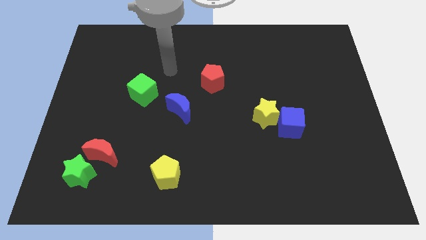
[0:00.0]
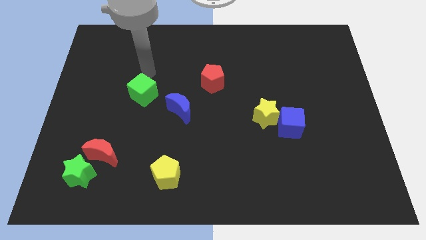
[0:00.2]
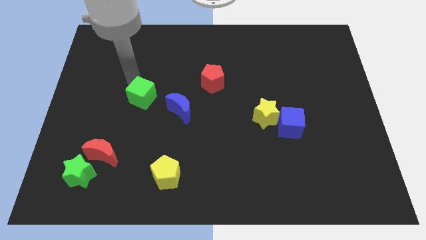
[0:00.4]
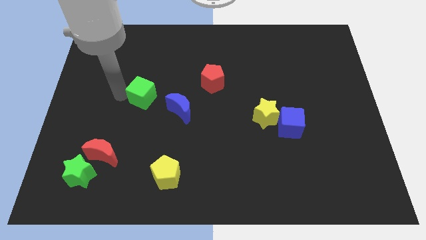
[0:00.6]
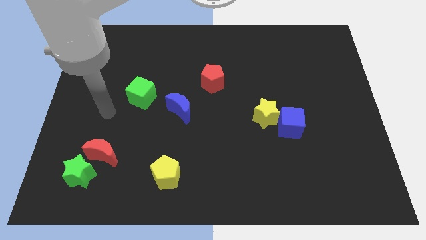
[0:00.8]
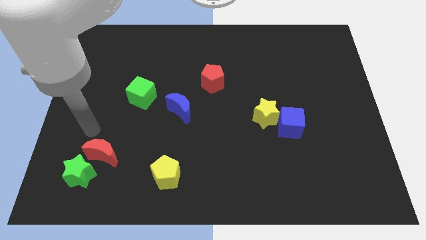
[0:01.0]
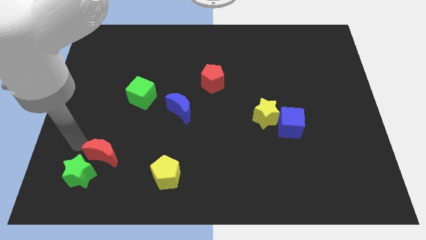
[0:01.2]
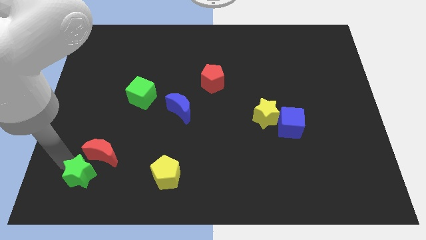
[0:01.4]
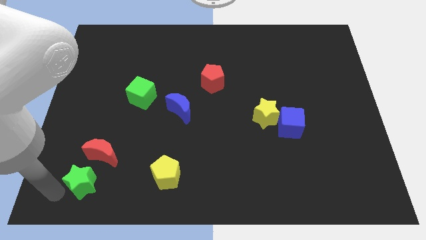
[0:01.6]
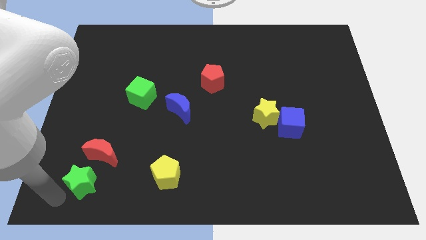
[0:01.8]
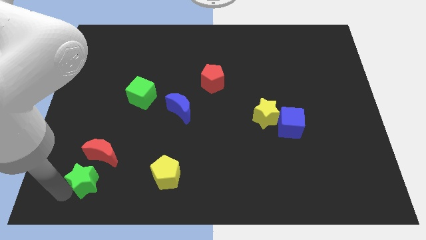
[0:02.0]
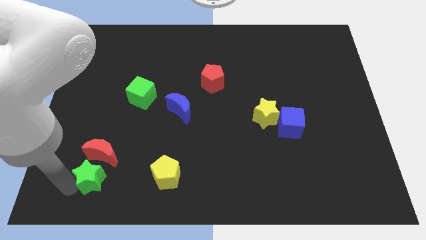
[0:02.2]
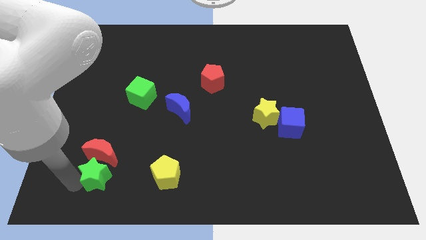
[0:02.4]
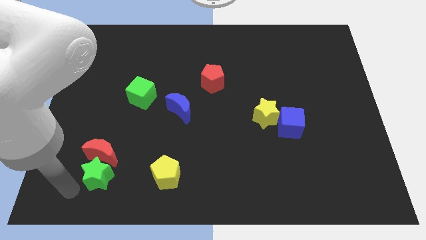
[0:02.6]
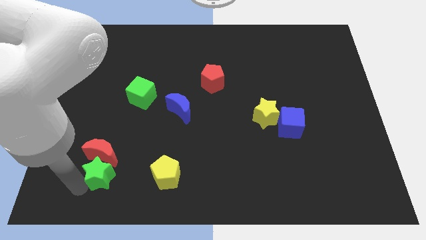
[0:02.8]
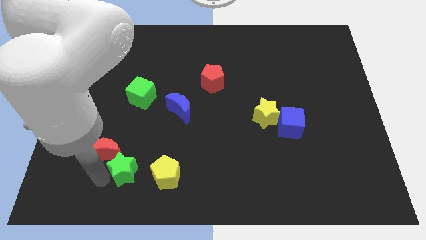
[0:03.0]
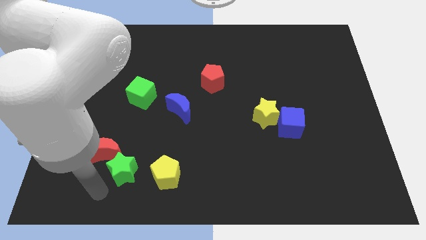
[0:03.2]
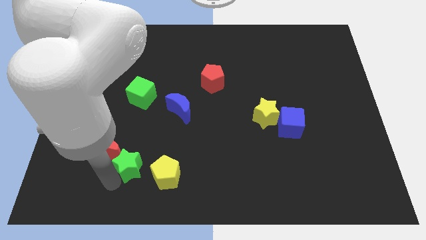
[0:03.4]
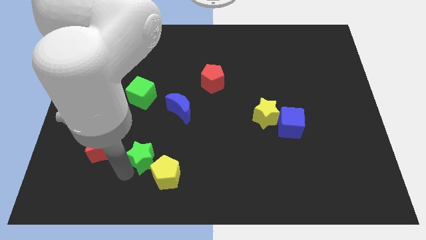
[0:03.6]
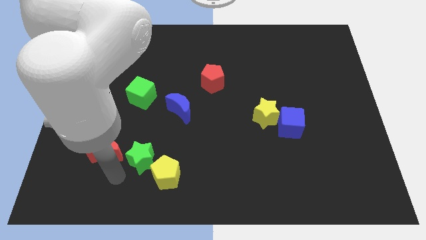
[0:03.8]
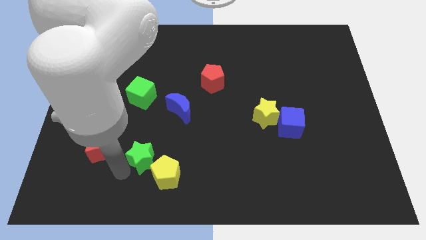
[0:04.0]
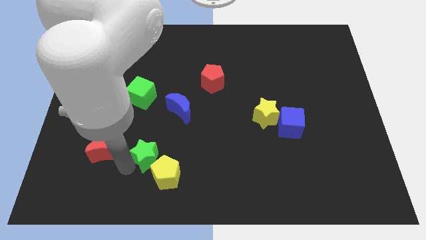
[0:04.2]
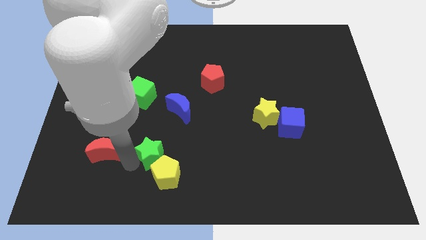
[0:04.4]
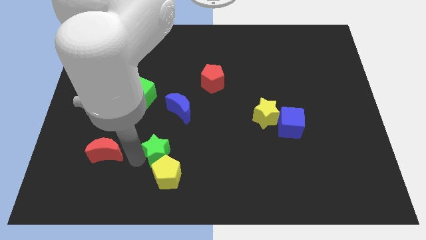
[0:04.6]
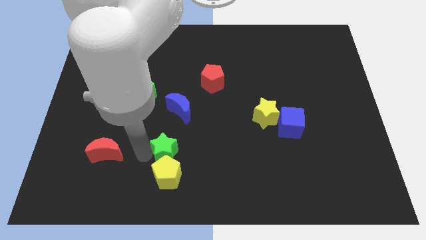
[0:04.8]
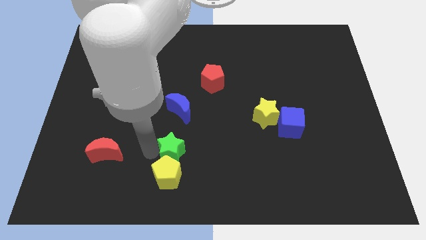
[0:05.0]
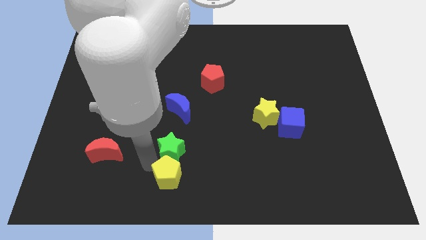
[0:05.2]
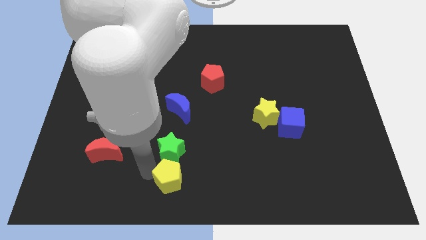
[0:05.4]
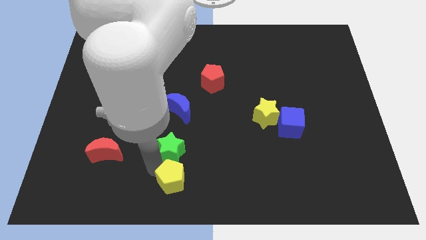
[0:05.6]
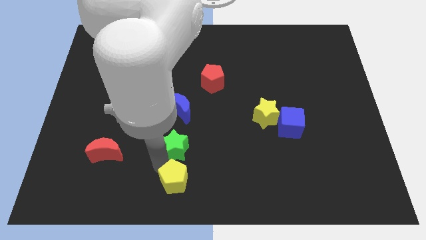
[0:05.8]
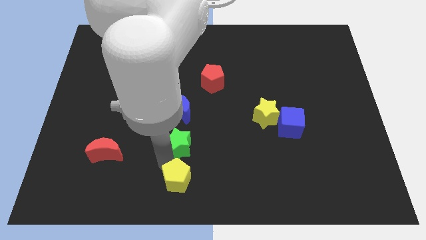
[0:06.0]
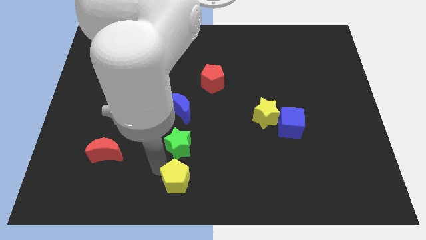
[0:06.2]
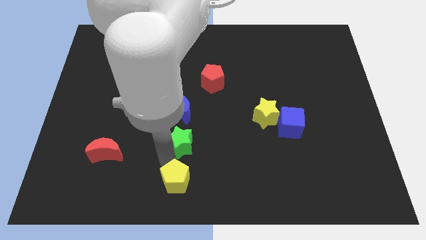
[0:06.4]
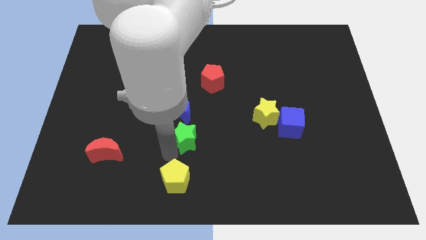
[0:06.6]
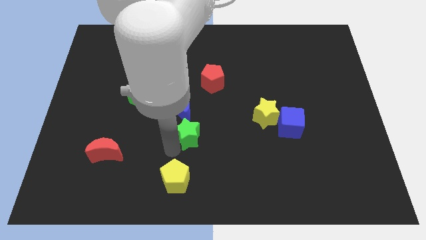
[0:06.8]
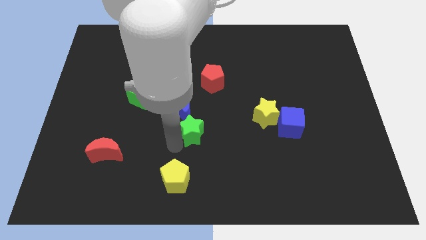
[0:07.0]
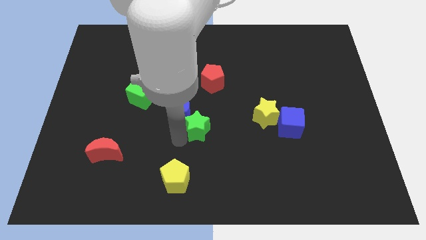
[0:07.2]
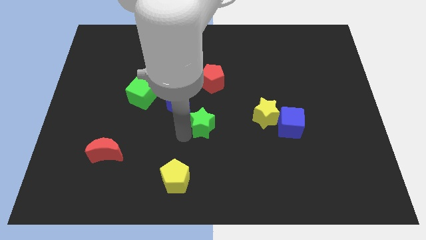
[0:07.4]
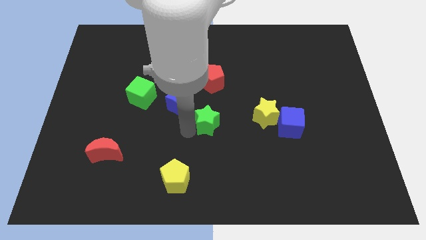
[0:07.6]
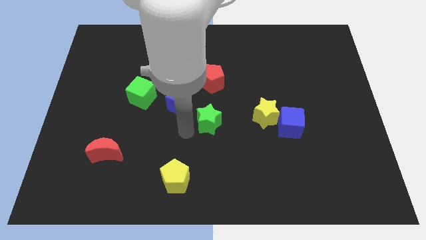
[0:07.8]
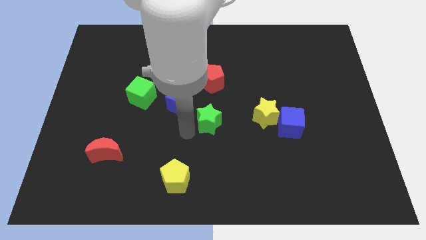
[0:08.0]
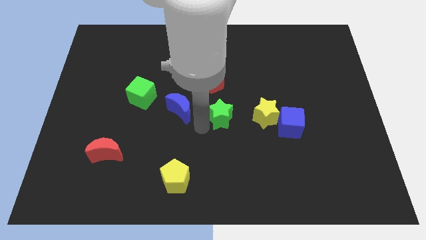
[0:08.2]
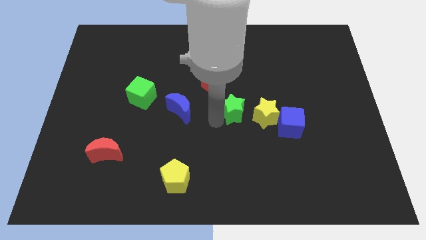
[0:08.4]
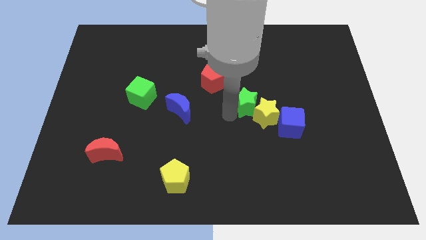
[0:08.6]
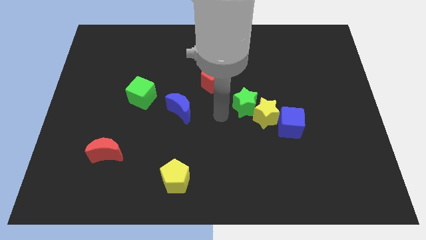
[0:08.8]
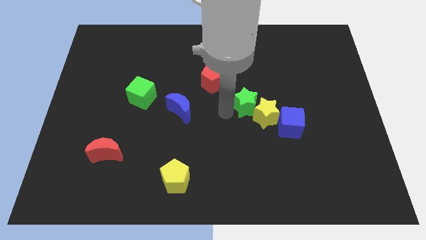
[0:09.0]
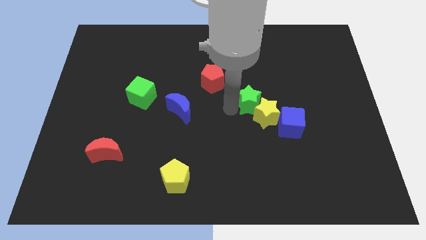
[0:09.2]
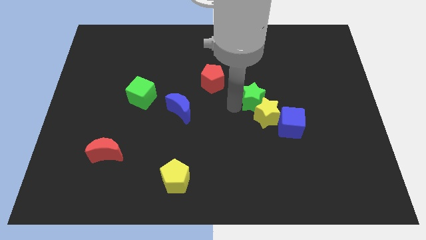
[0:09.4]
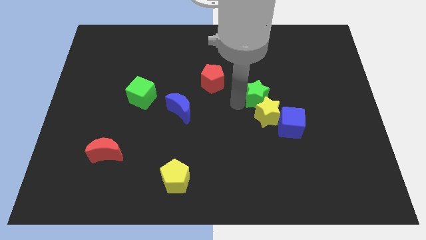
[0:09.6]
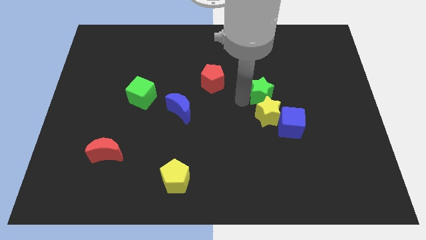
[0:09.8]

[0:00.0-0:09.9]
move the green star to the top right side of the yellow star

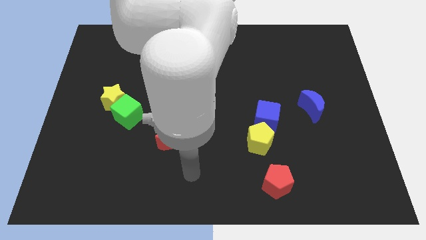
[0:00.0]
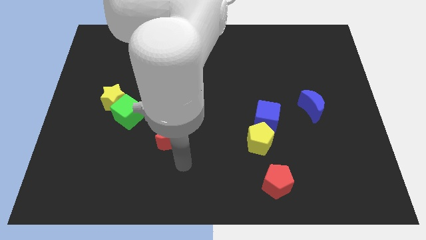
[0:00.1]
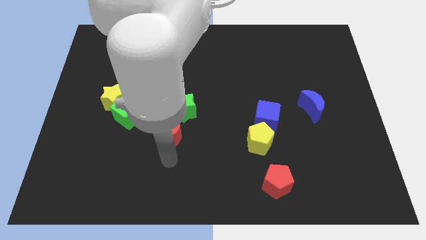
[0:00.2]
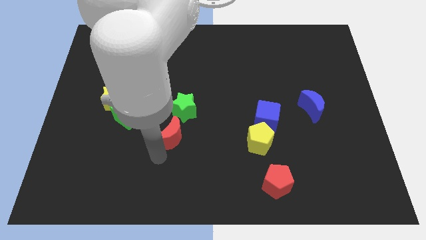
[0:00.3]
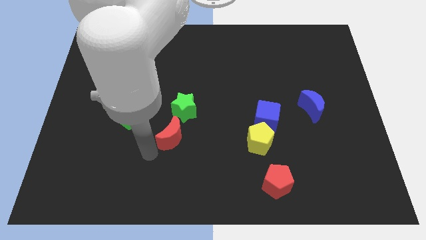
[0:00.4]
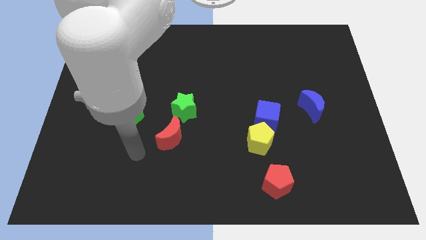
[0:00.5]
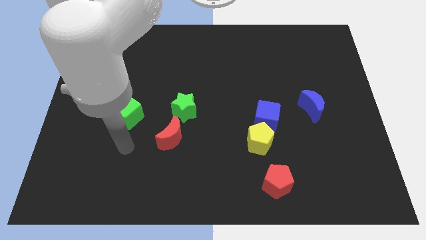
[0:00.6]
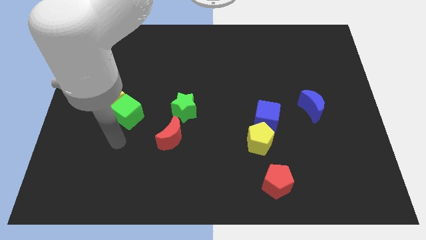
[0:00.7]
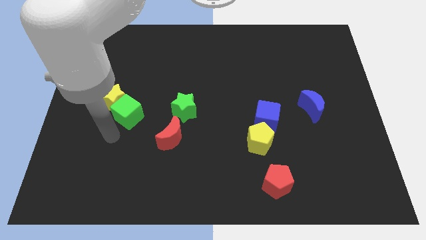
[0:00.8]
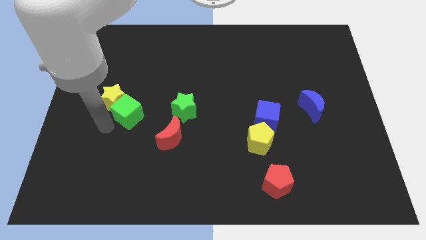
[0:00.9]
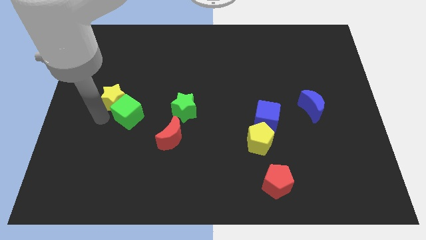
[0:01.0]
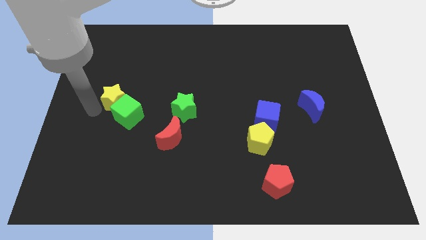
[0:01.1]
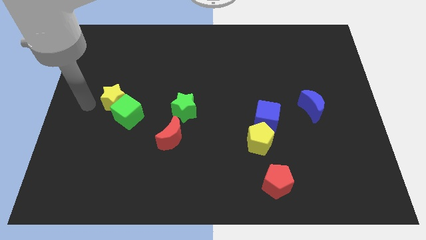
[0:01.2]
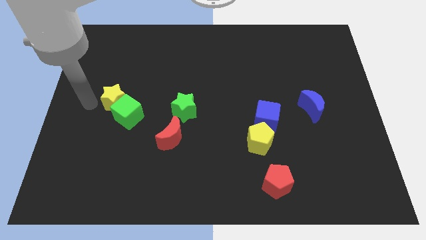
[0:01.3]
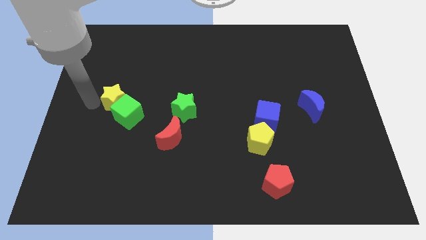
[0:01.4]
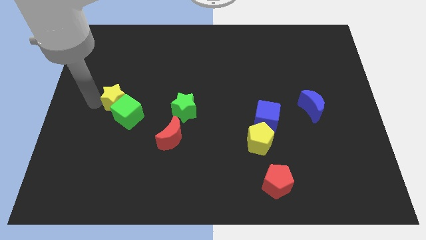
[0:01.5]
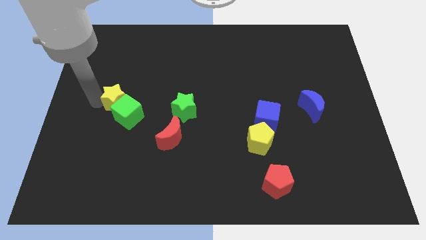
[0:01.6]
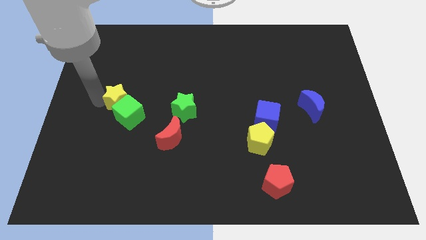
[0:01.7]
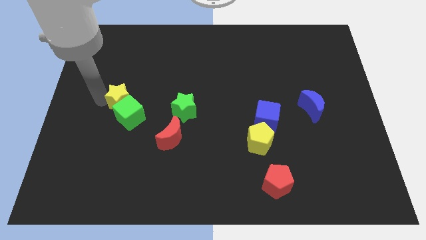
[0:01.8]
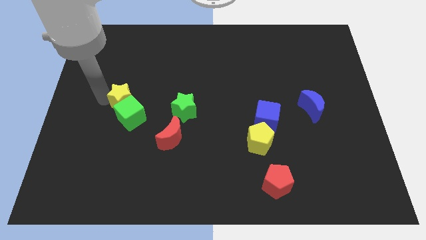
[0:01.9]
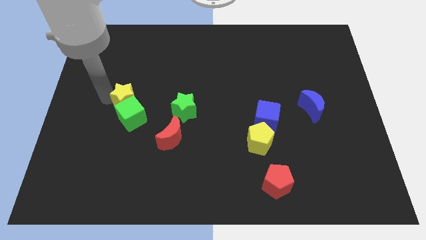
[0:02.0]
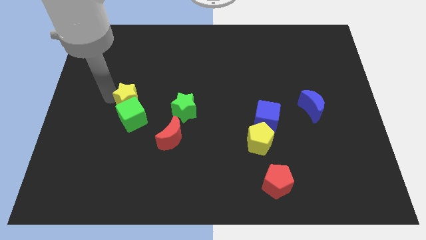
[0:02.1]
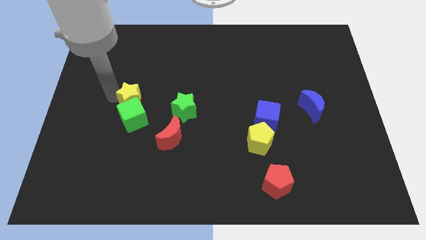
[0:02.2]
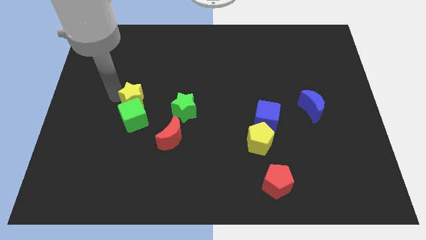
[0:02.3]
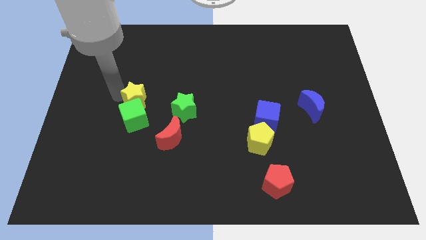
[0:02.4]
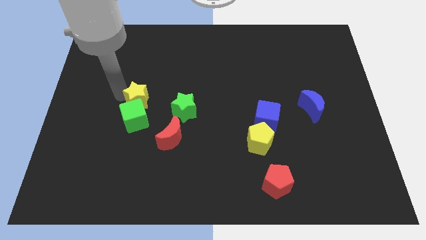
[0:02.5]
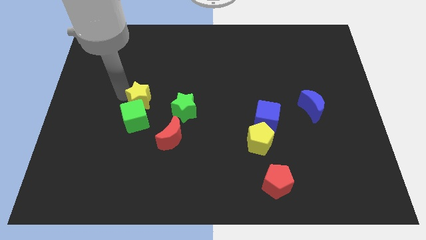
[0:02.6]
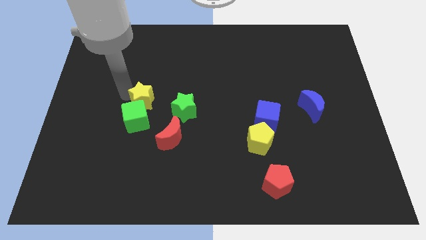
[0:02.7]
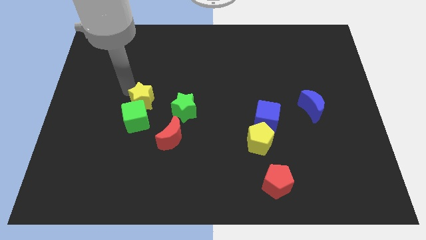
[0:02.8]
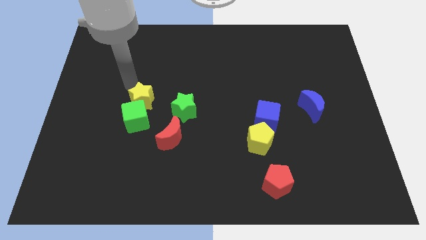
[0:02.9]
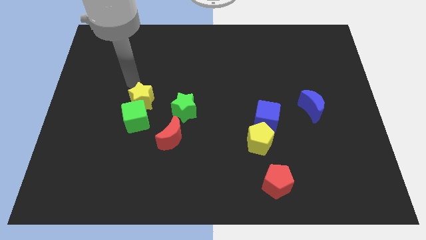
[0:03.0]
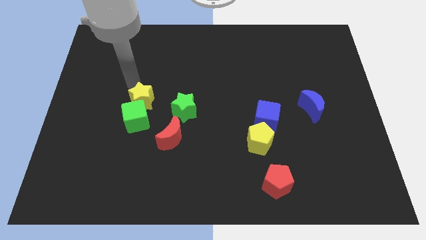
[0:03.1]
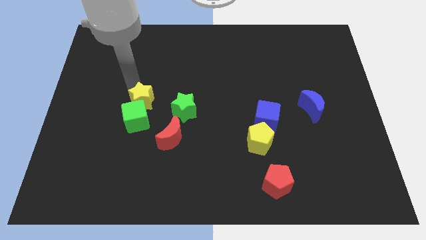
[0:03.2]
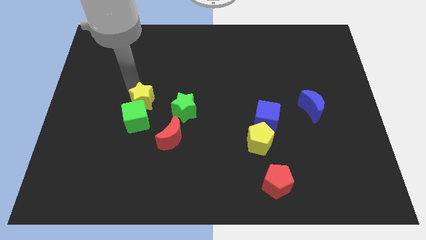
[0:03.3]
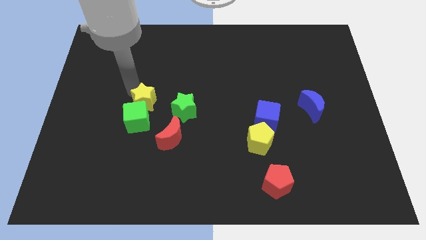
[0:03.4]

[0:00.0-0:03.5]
put the yellow star diagonally up and to the left of the red moon
